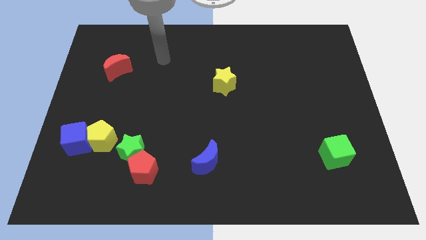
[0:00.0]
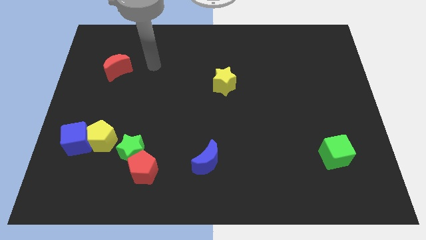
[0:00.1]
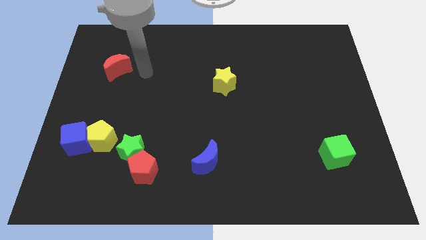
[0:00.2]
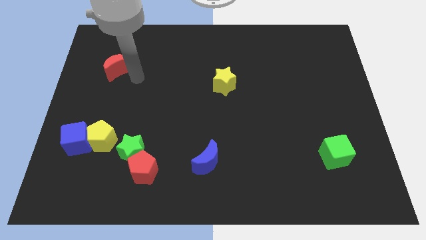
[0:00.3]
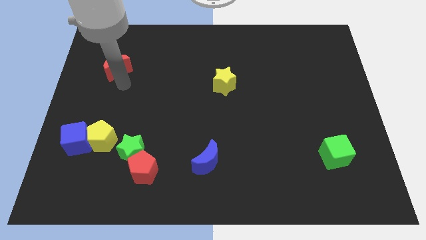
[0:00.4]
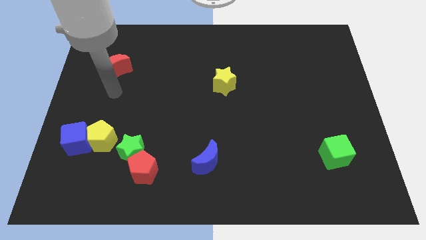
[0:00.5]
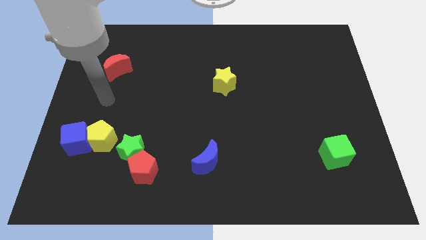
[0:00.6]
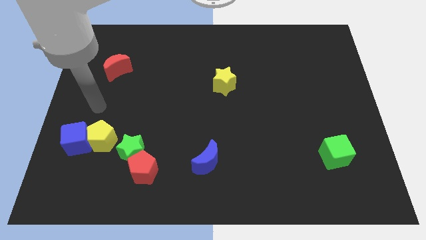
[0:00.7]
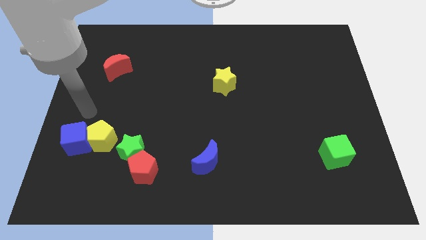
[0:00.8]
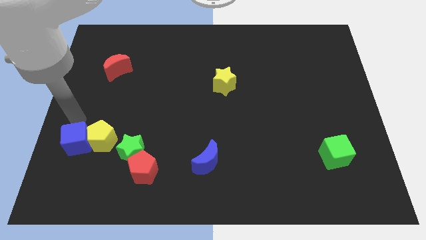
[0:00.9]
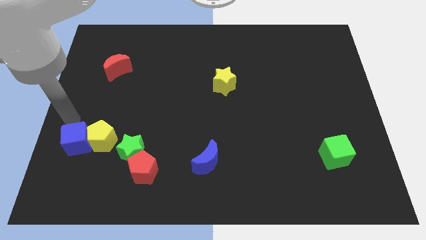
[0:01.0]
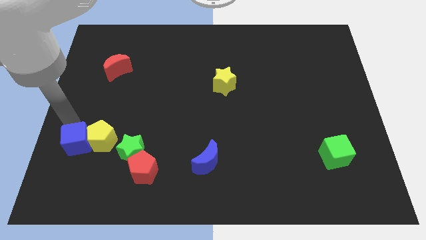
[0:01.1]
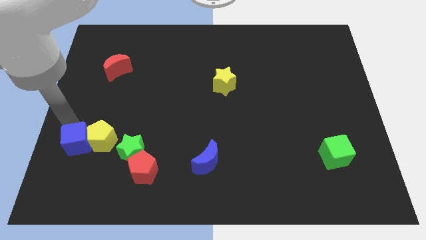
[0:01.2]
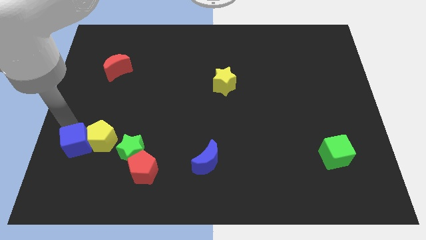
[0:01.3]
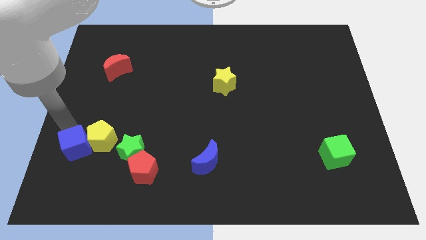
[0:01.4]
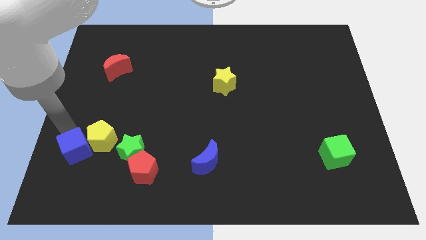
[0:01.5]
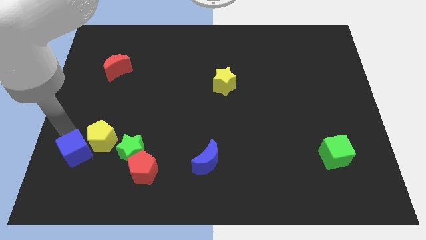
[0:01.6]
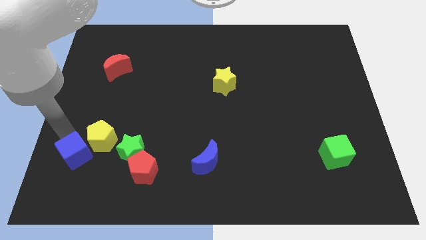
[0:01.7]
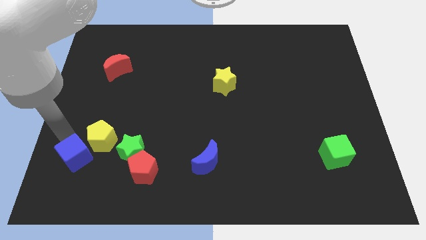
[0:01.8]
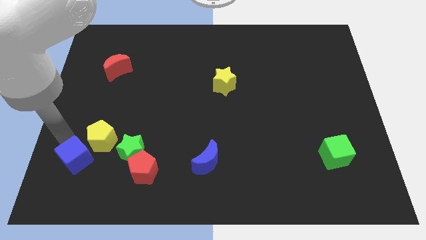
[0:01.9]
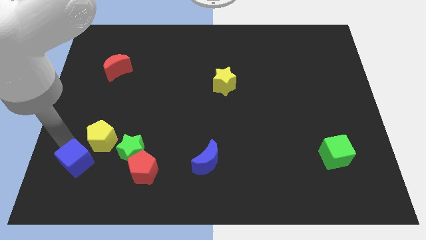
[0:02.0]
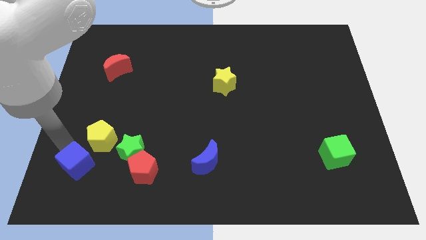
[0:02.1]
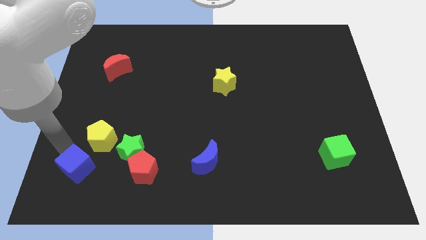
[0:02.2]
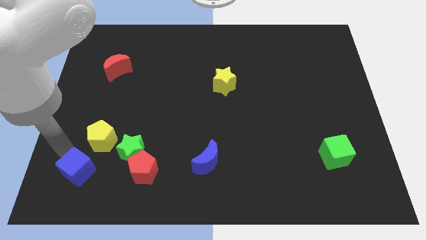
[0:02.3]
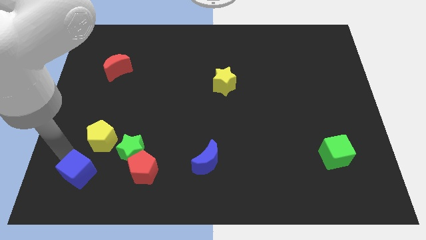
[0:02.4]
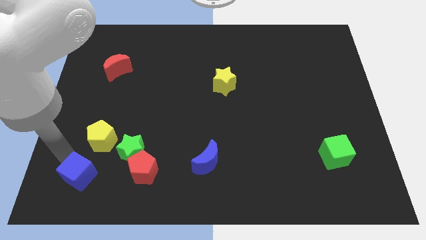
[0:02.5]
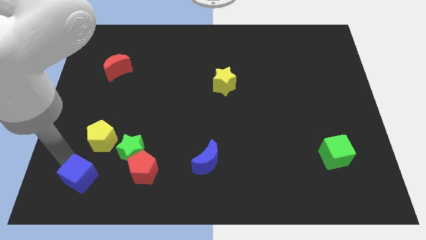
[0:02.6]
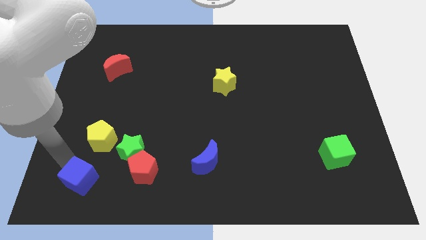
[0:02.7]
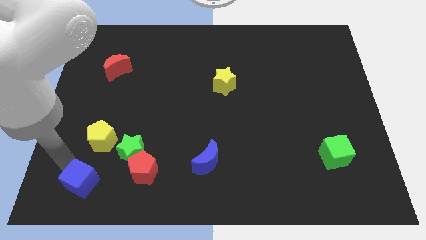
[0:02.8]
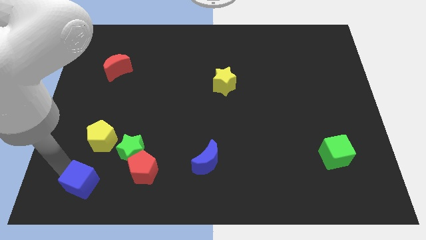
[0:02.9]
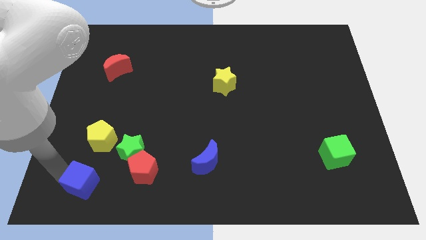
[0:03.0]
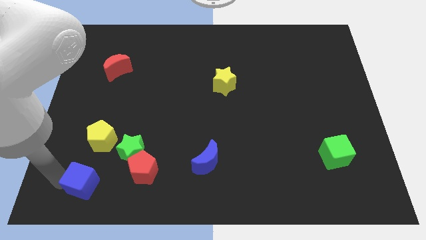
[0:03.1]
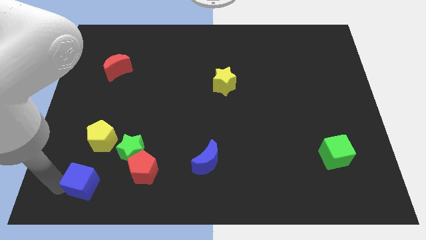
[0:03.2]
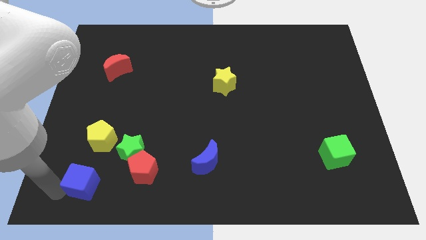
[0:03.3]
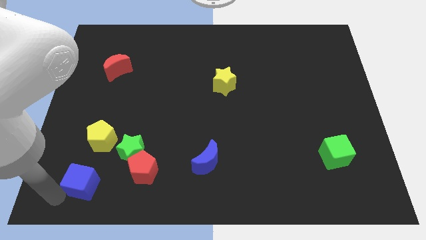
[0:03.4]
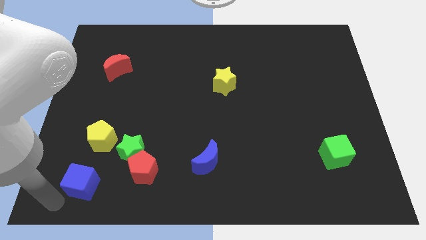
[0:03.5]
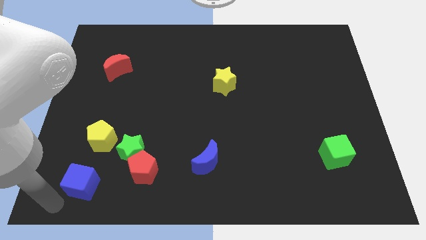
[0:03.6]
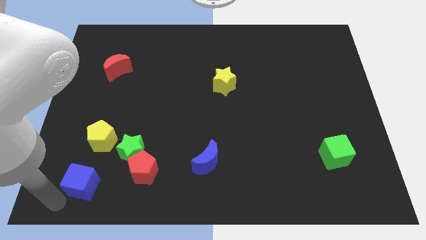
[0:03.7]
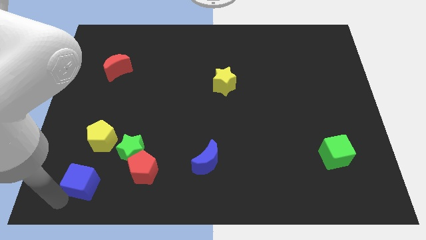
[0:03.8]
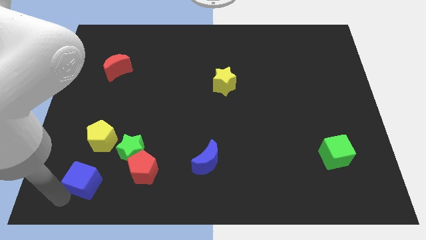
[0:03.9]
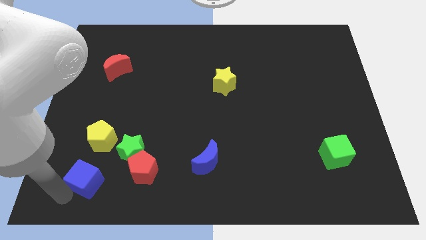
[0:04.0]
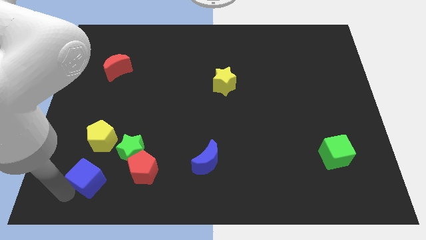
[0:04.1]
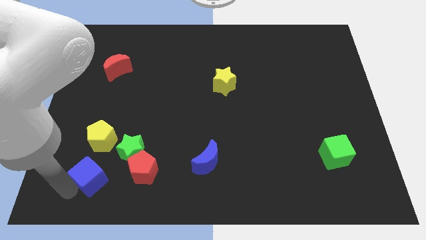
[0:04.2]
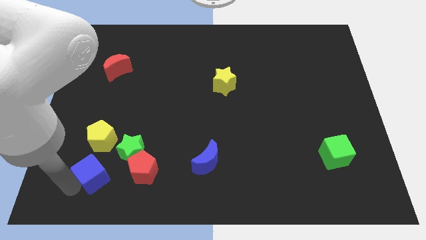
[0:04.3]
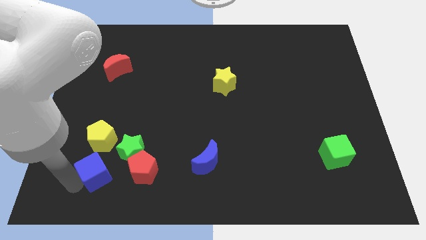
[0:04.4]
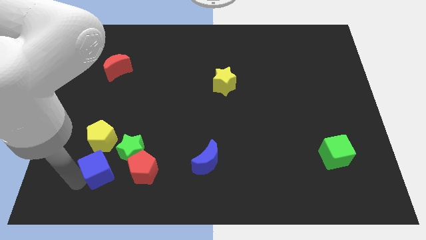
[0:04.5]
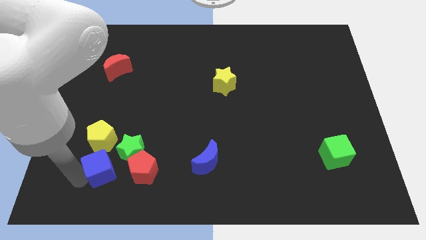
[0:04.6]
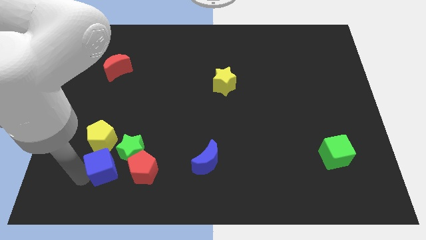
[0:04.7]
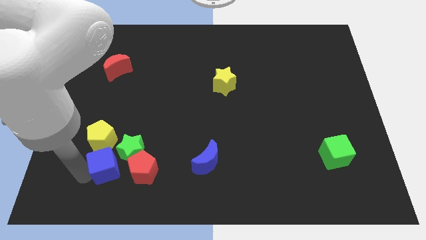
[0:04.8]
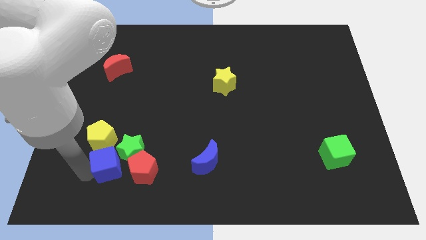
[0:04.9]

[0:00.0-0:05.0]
move the blue cube towards the green star

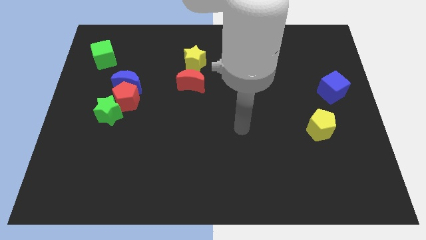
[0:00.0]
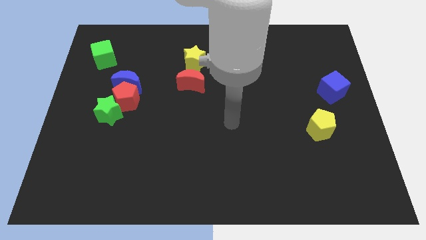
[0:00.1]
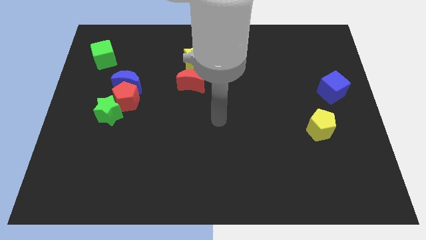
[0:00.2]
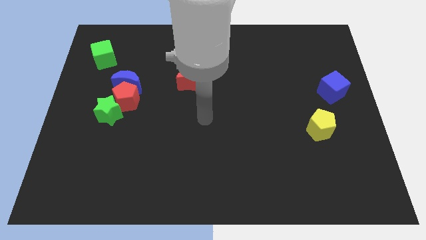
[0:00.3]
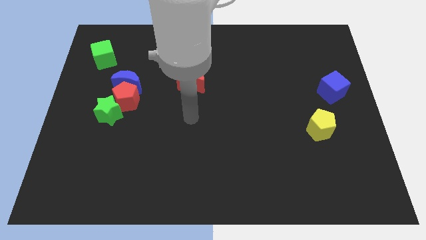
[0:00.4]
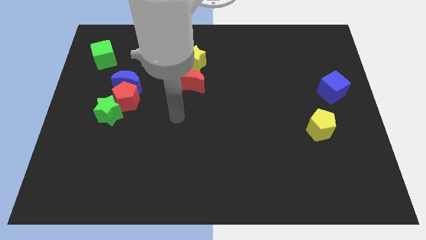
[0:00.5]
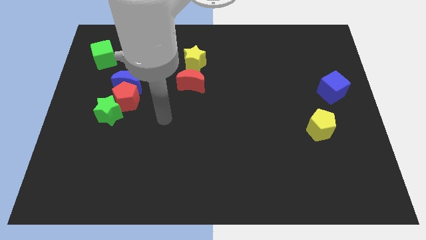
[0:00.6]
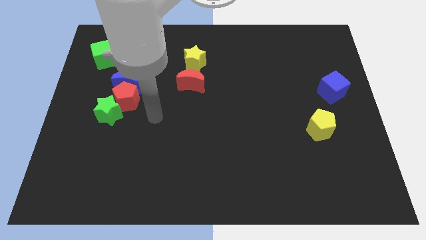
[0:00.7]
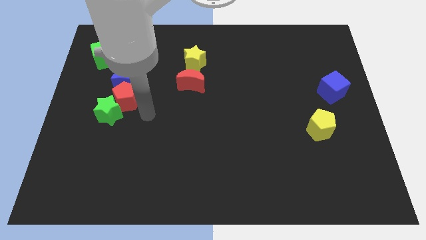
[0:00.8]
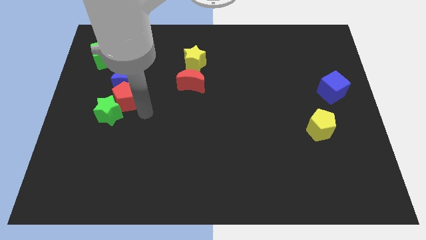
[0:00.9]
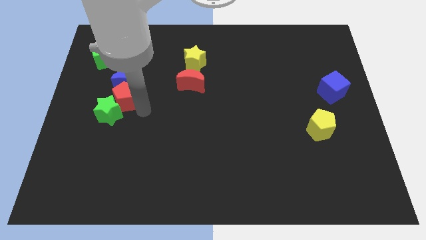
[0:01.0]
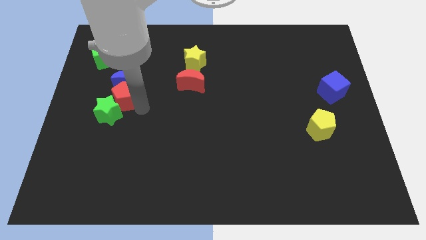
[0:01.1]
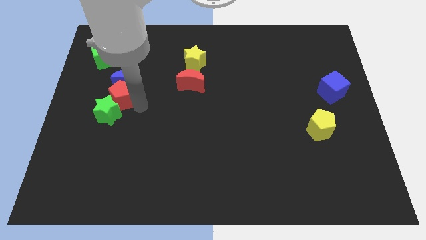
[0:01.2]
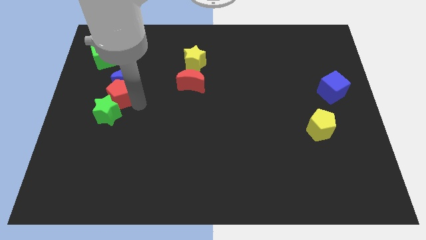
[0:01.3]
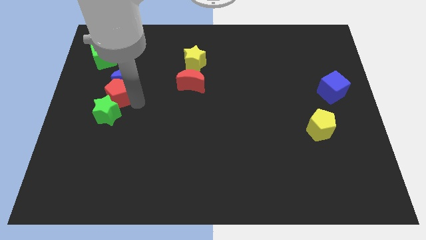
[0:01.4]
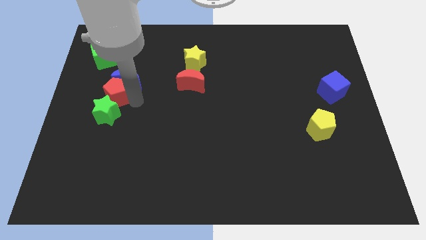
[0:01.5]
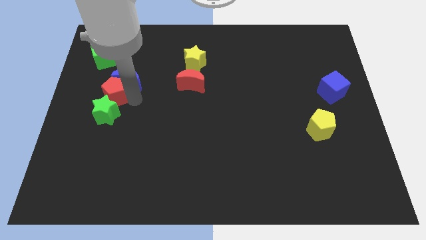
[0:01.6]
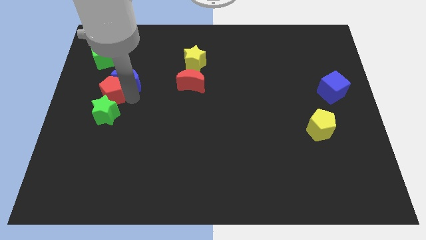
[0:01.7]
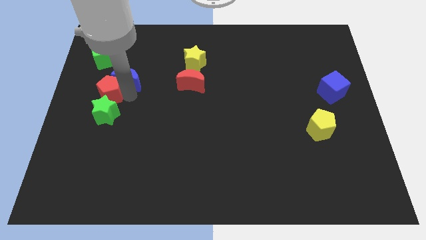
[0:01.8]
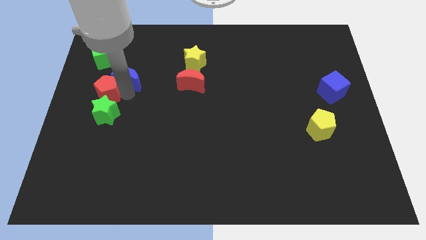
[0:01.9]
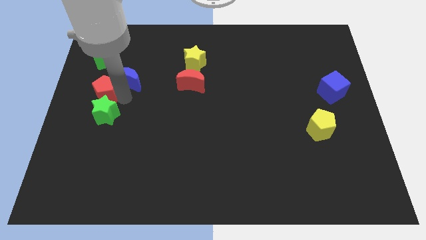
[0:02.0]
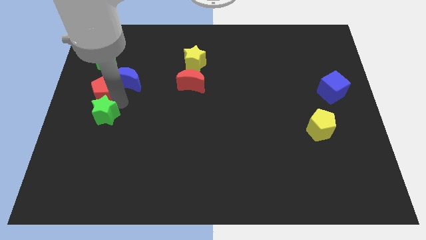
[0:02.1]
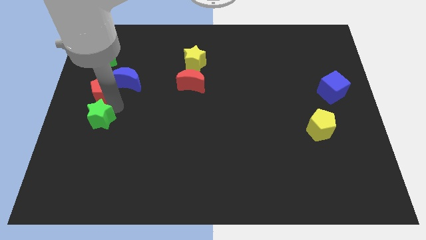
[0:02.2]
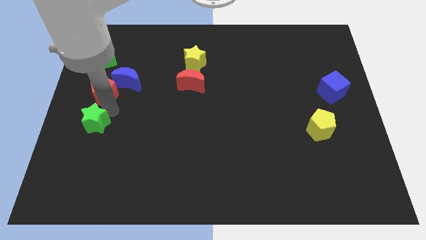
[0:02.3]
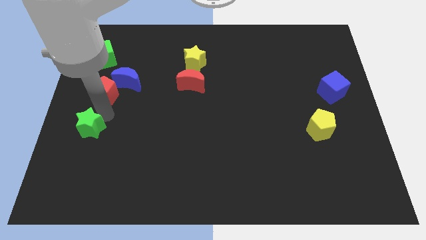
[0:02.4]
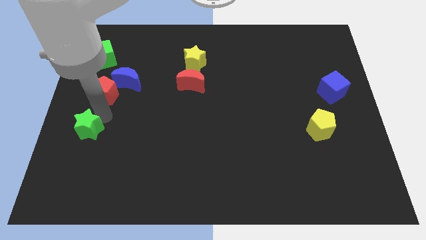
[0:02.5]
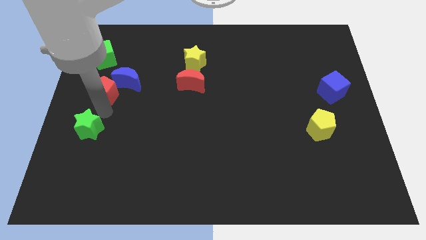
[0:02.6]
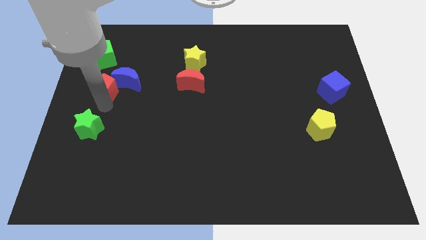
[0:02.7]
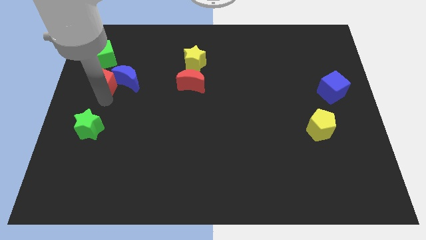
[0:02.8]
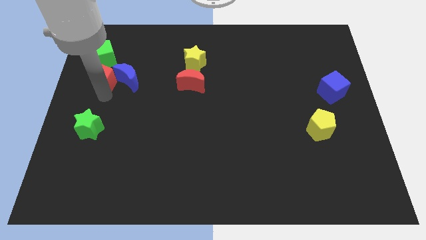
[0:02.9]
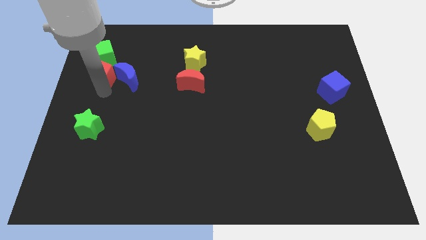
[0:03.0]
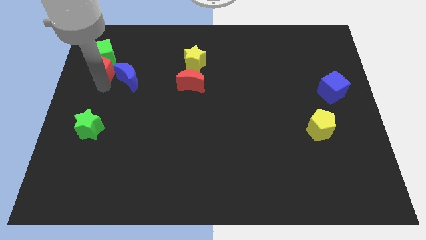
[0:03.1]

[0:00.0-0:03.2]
slide the red pentagon close to the green cube
